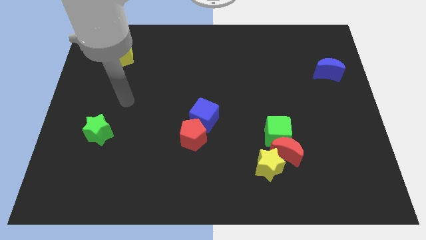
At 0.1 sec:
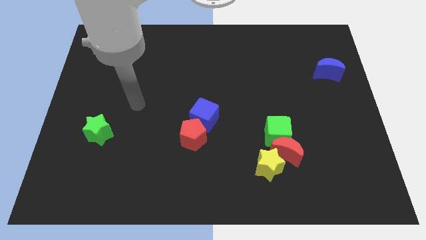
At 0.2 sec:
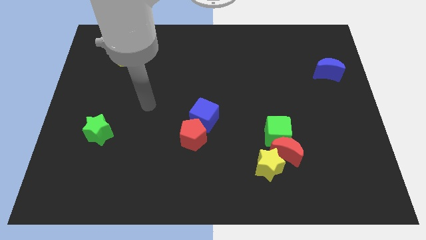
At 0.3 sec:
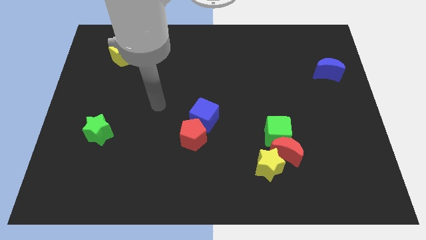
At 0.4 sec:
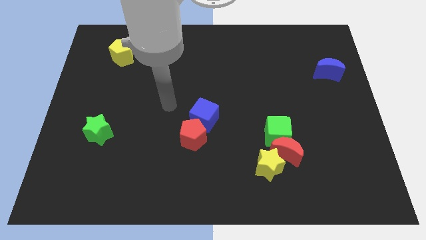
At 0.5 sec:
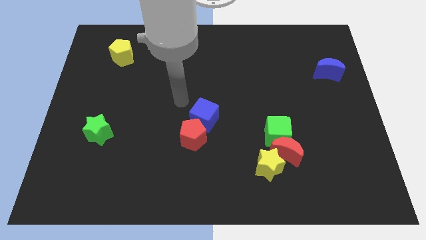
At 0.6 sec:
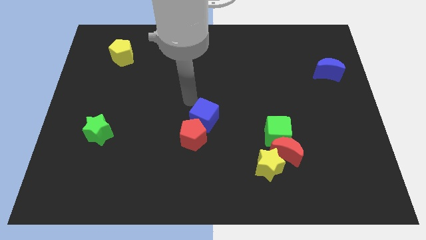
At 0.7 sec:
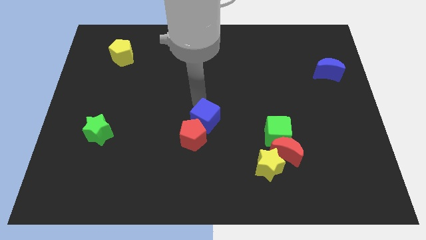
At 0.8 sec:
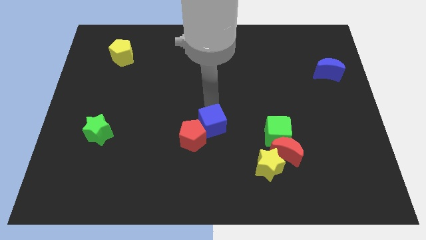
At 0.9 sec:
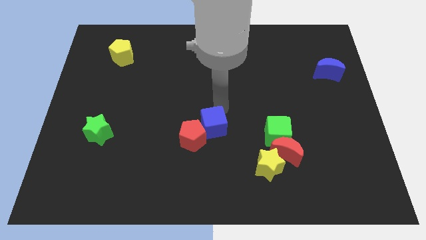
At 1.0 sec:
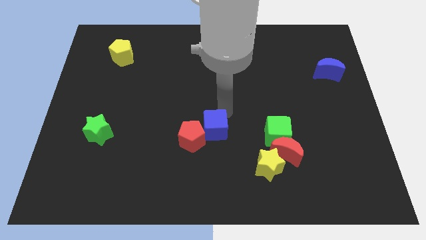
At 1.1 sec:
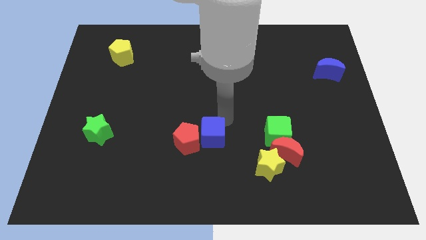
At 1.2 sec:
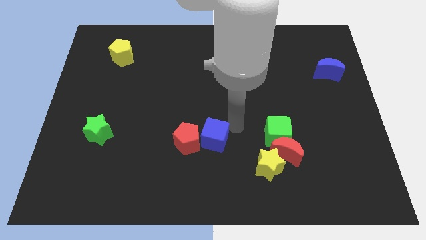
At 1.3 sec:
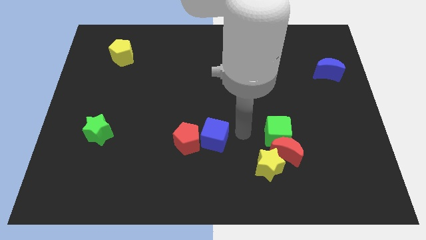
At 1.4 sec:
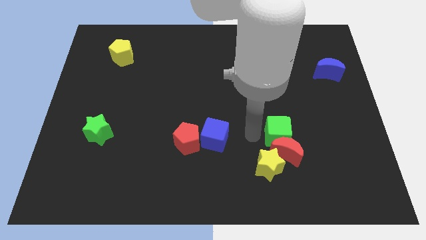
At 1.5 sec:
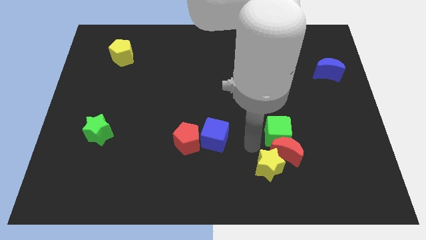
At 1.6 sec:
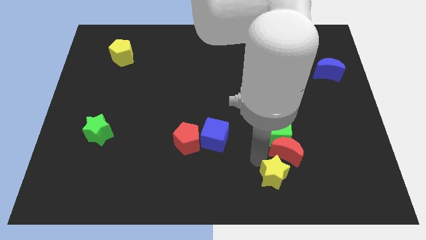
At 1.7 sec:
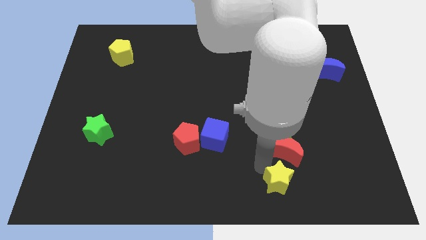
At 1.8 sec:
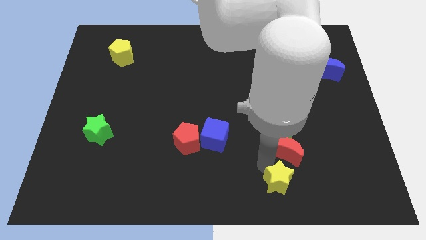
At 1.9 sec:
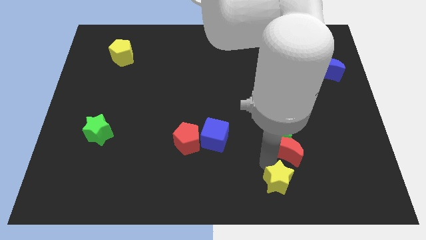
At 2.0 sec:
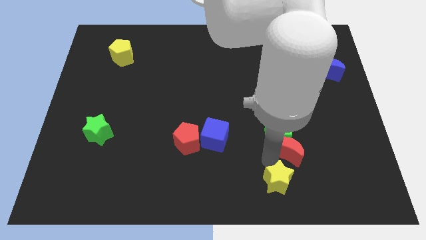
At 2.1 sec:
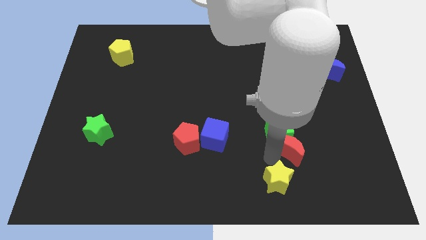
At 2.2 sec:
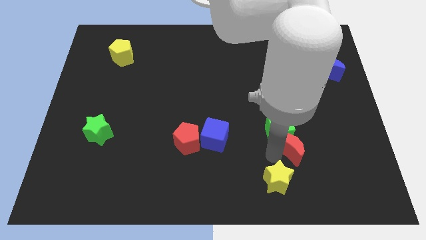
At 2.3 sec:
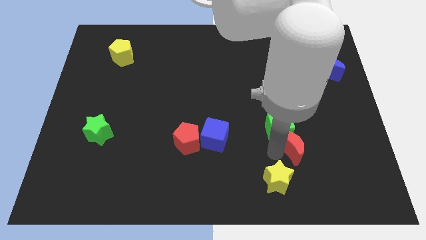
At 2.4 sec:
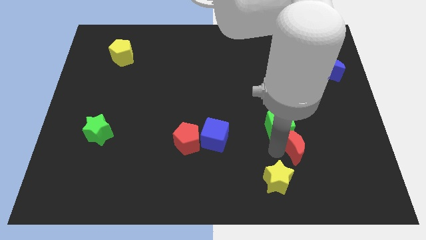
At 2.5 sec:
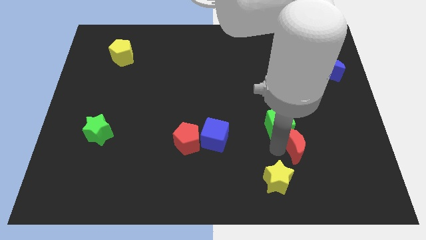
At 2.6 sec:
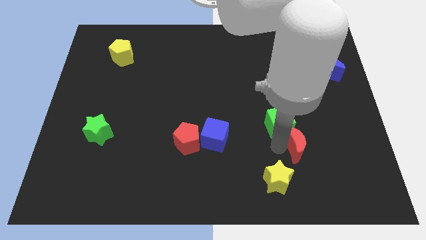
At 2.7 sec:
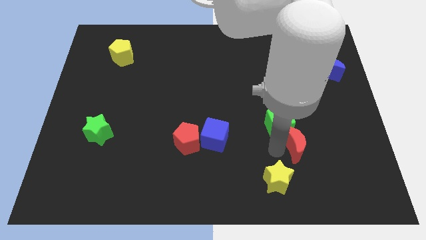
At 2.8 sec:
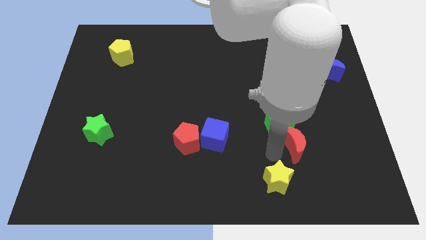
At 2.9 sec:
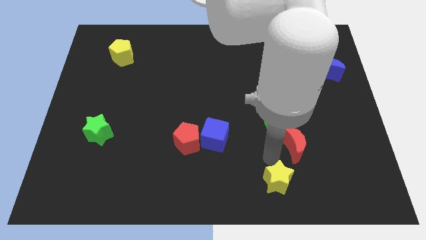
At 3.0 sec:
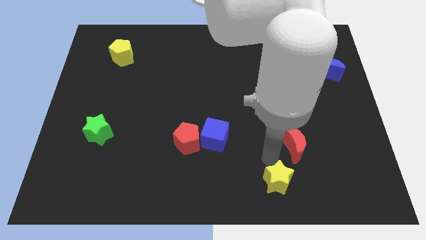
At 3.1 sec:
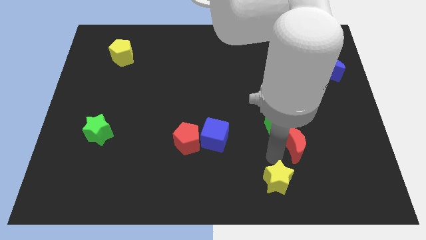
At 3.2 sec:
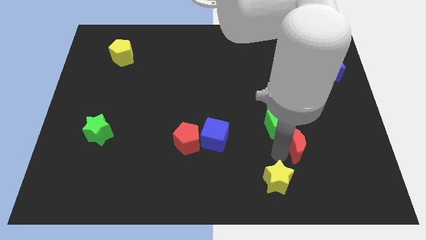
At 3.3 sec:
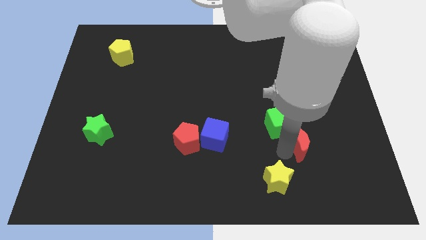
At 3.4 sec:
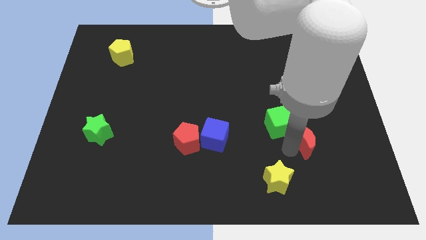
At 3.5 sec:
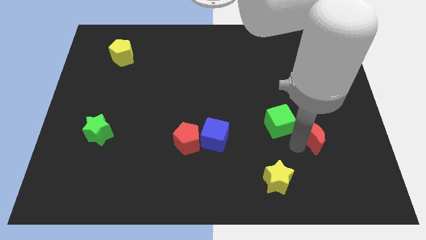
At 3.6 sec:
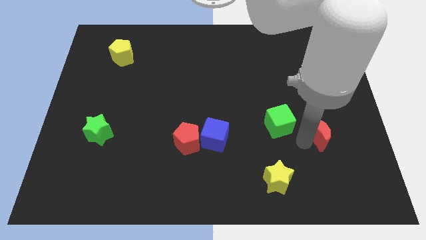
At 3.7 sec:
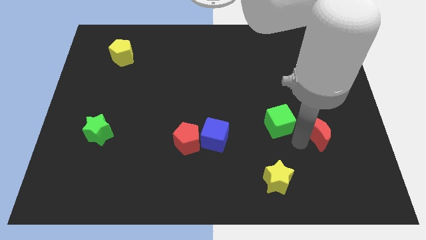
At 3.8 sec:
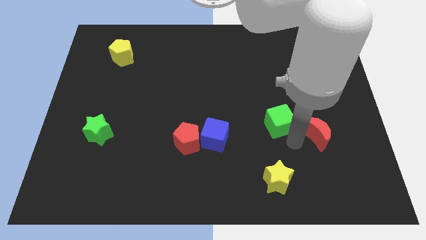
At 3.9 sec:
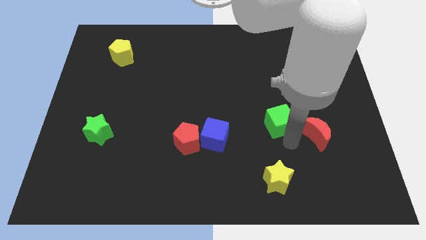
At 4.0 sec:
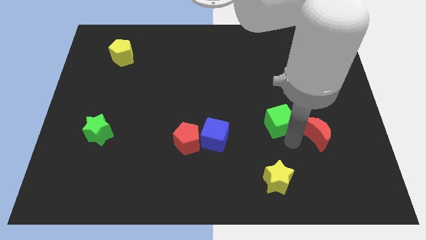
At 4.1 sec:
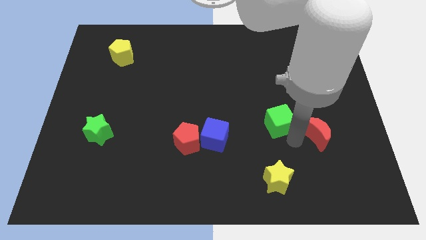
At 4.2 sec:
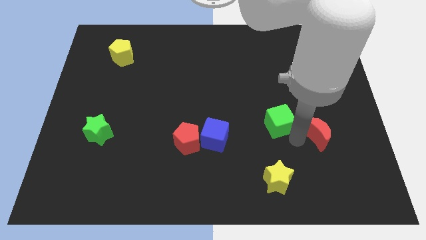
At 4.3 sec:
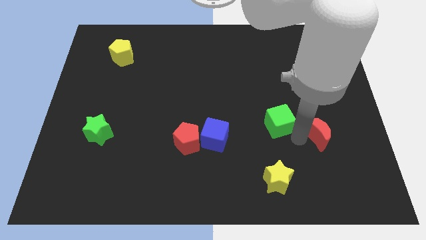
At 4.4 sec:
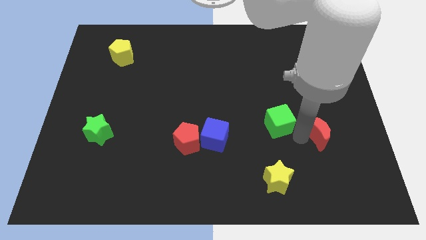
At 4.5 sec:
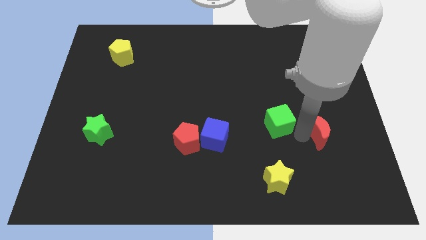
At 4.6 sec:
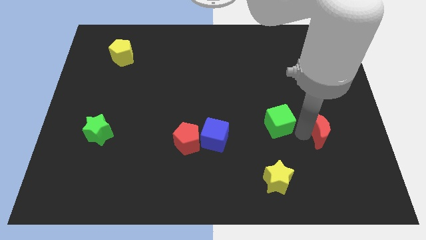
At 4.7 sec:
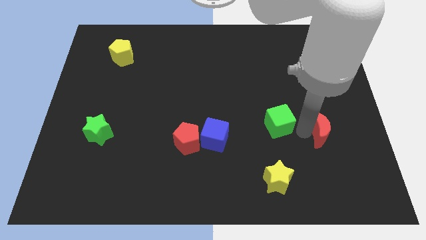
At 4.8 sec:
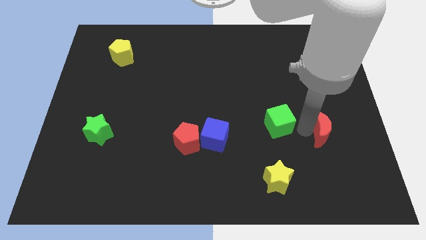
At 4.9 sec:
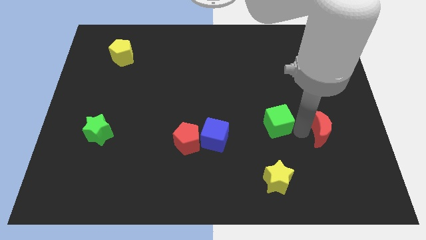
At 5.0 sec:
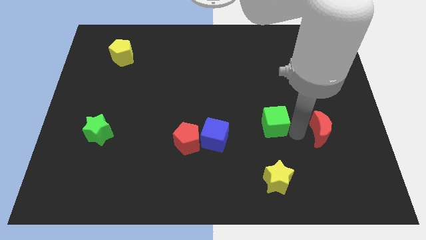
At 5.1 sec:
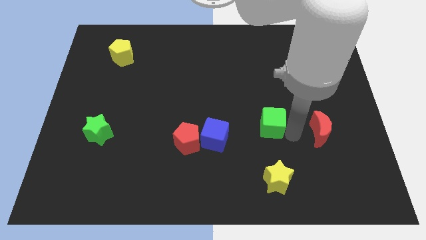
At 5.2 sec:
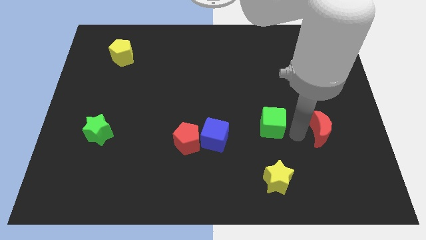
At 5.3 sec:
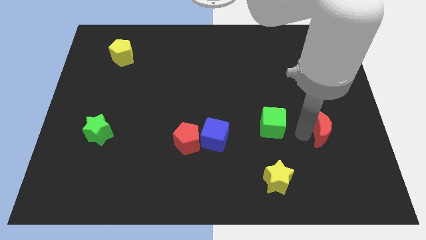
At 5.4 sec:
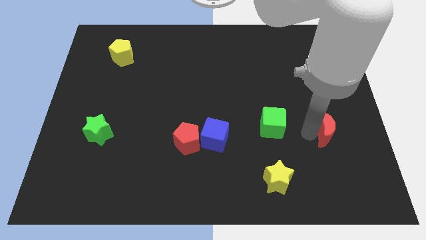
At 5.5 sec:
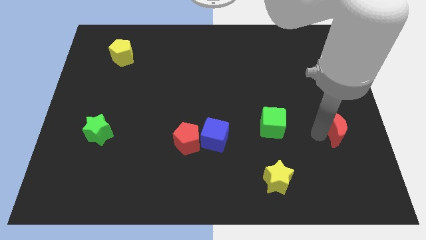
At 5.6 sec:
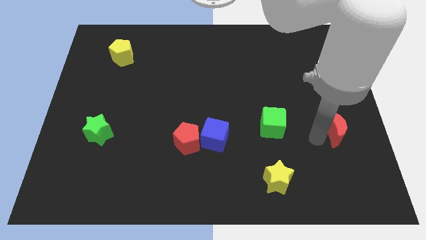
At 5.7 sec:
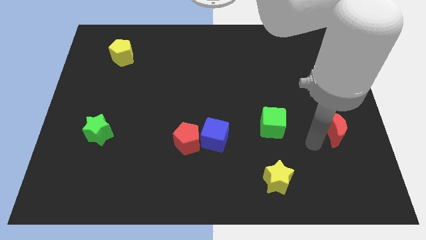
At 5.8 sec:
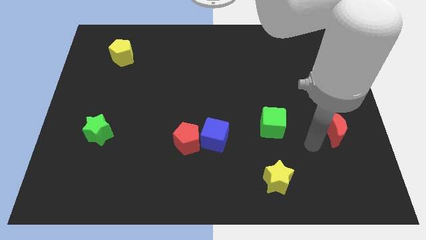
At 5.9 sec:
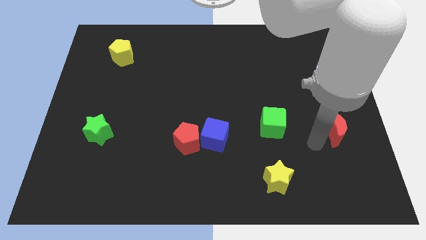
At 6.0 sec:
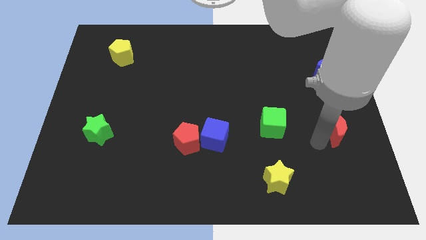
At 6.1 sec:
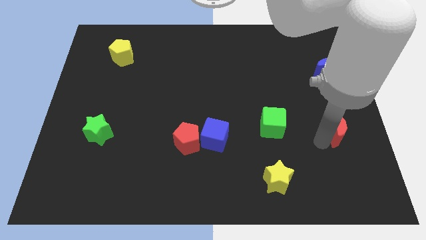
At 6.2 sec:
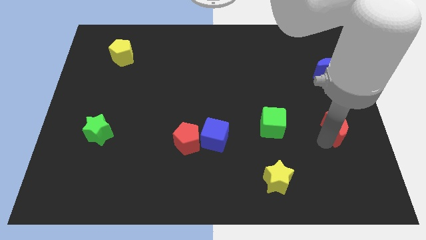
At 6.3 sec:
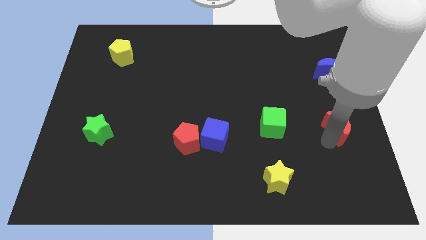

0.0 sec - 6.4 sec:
put the red moon to the right side

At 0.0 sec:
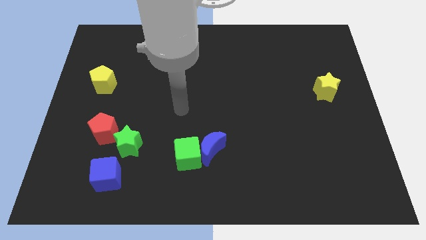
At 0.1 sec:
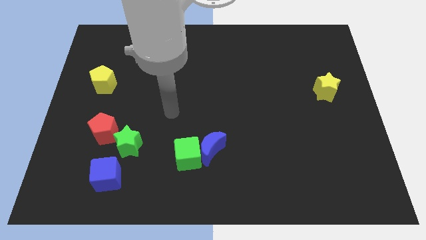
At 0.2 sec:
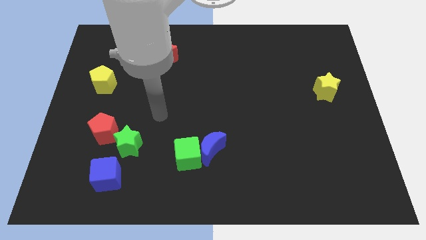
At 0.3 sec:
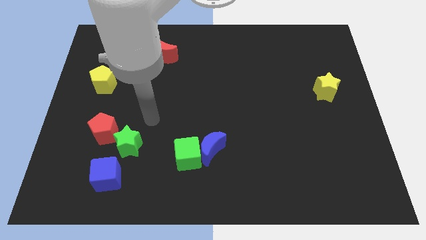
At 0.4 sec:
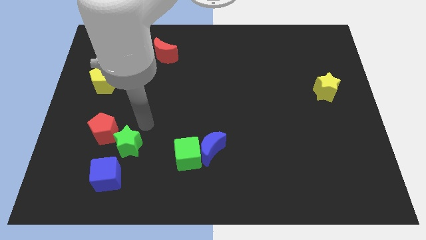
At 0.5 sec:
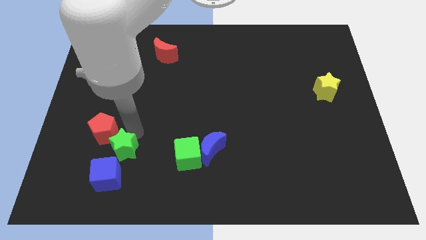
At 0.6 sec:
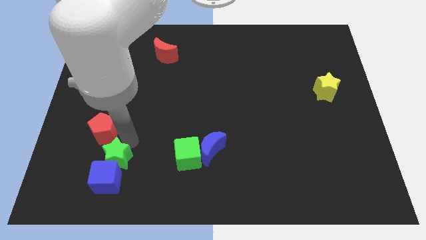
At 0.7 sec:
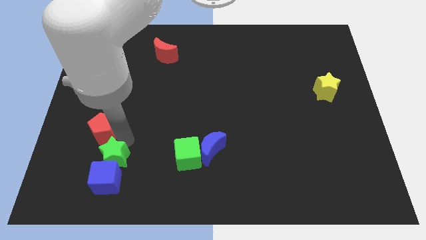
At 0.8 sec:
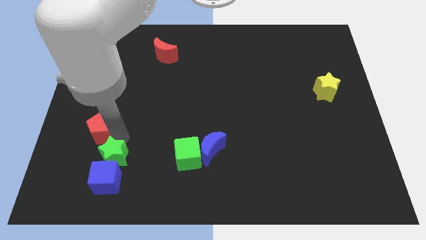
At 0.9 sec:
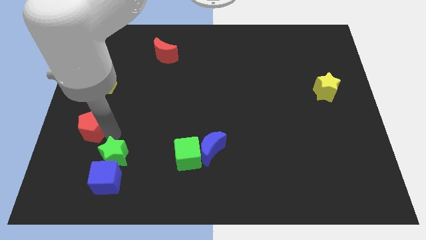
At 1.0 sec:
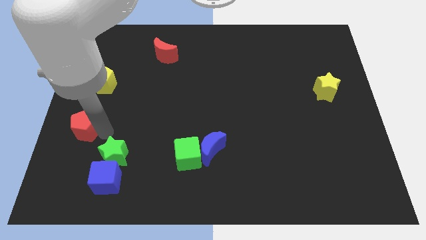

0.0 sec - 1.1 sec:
push the red pentagon to the left side
